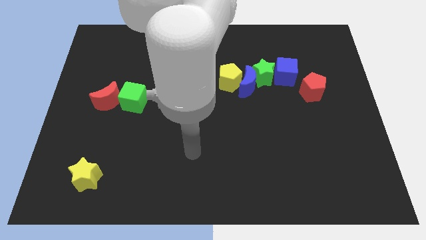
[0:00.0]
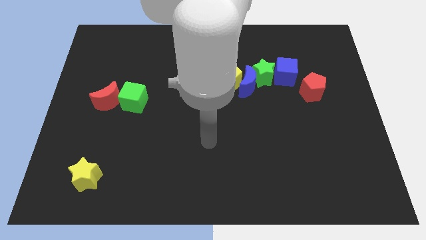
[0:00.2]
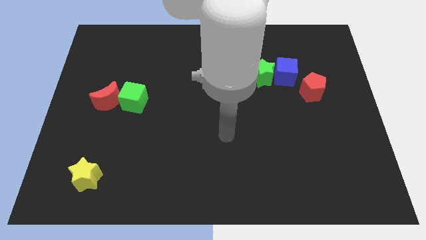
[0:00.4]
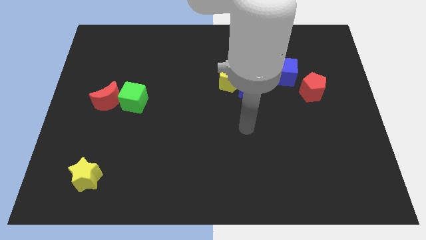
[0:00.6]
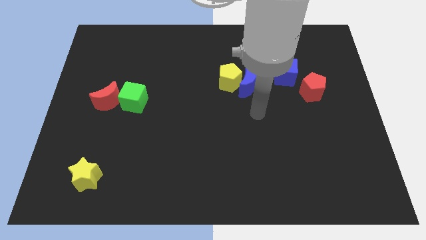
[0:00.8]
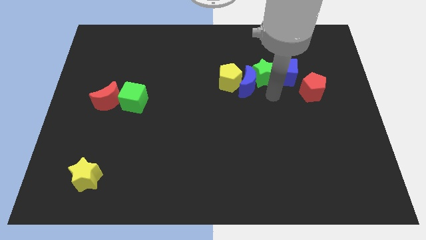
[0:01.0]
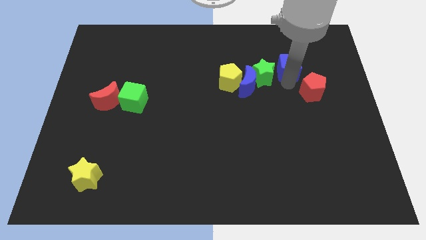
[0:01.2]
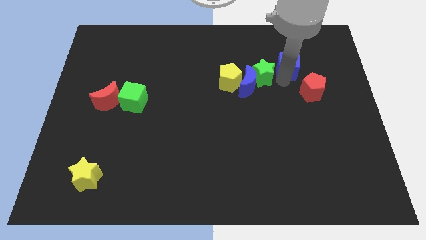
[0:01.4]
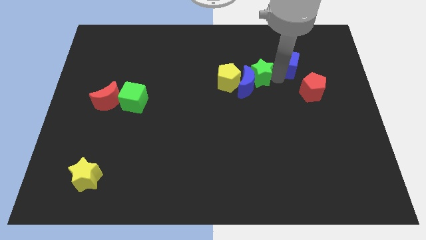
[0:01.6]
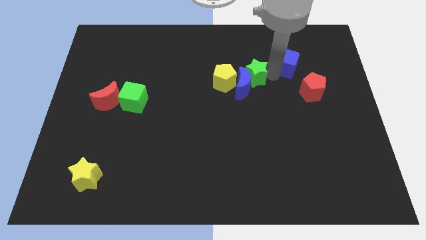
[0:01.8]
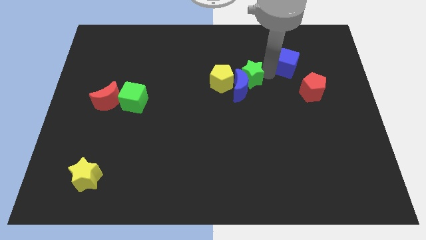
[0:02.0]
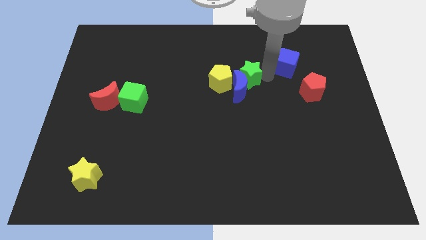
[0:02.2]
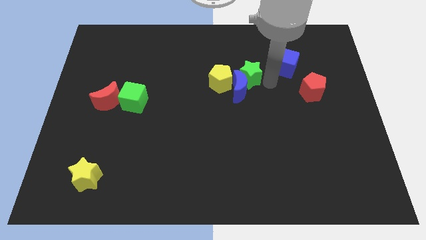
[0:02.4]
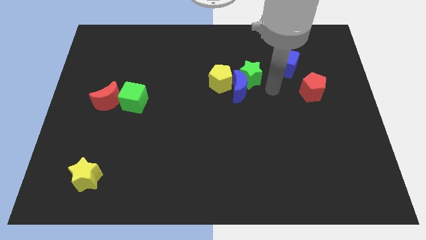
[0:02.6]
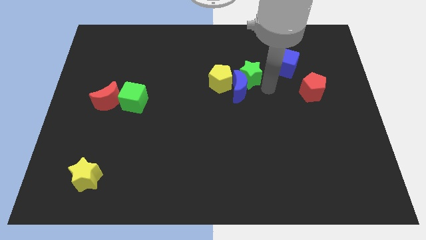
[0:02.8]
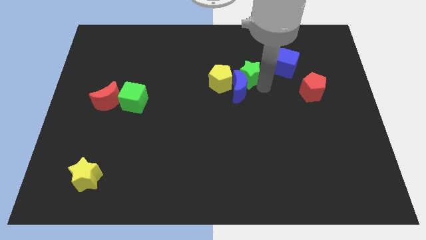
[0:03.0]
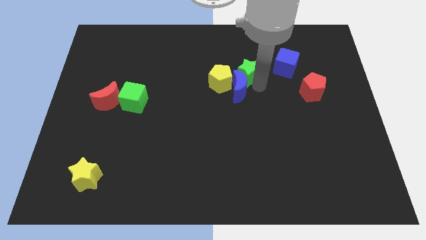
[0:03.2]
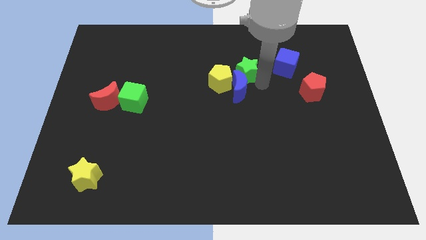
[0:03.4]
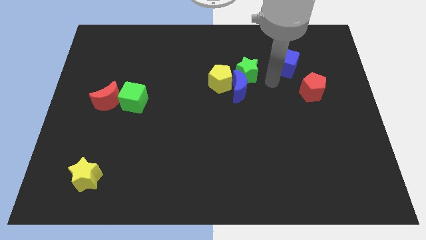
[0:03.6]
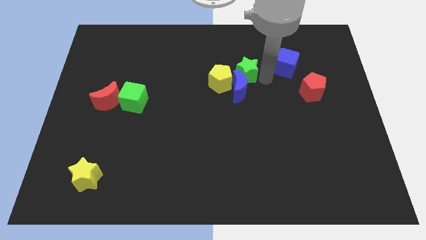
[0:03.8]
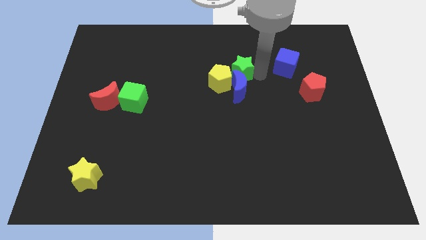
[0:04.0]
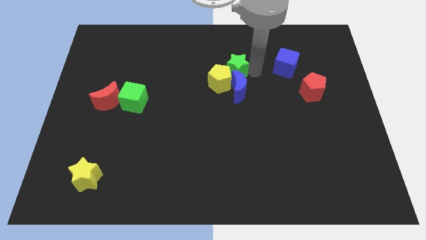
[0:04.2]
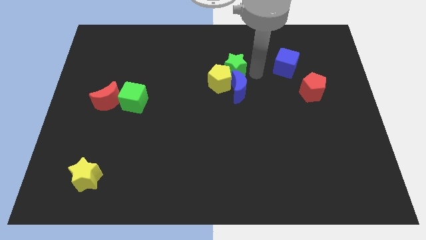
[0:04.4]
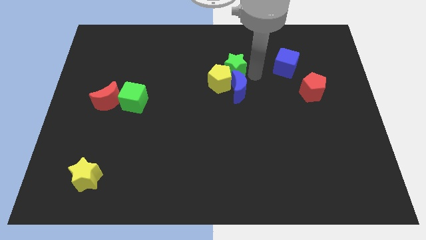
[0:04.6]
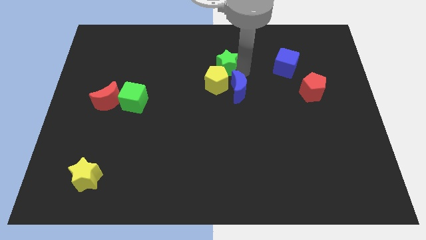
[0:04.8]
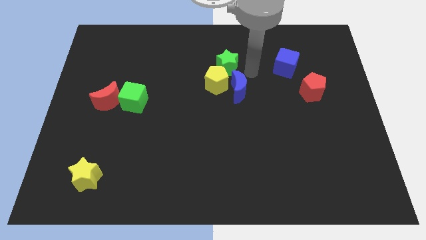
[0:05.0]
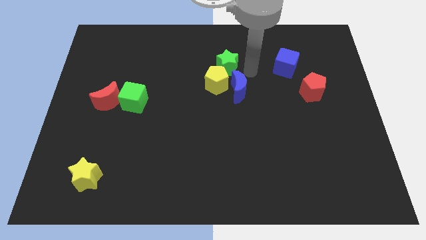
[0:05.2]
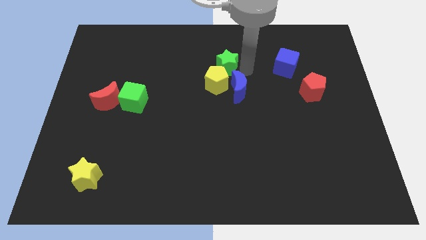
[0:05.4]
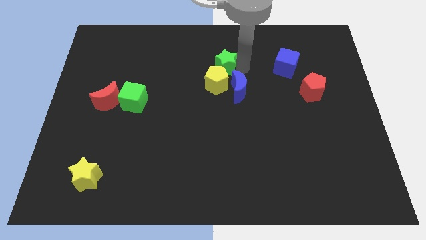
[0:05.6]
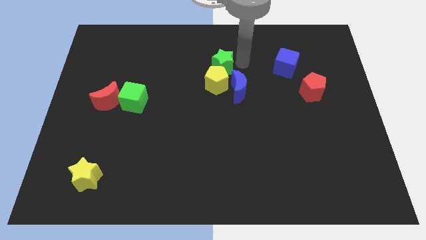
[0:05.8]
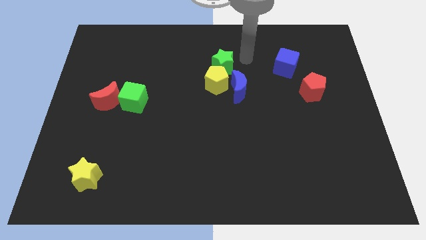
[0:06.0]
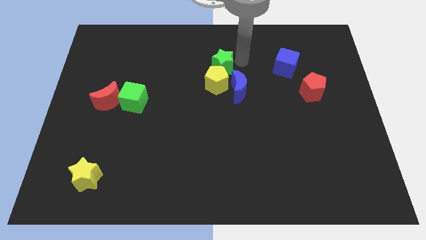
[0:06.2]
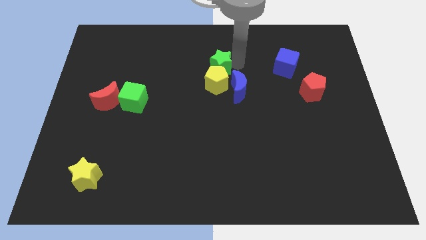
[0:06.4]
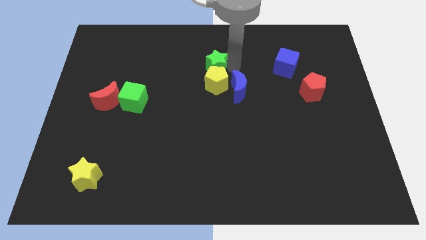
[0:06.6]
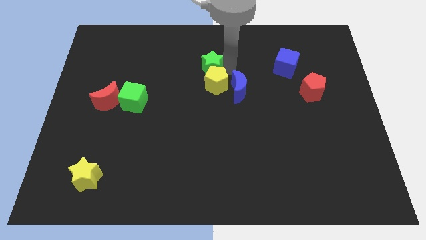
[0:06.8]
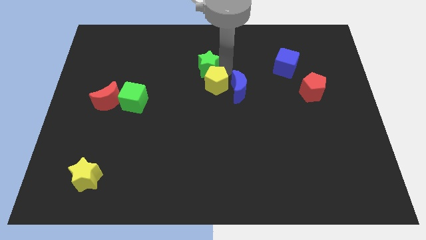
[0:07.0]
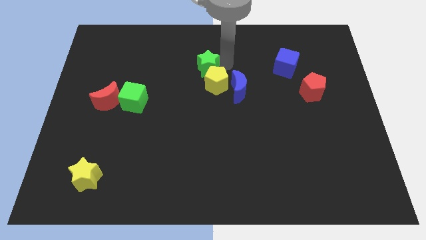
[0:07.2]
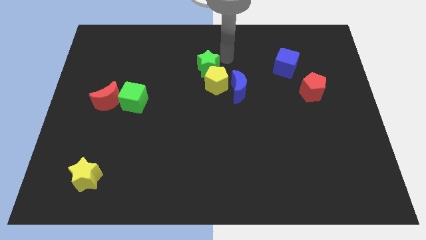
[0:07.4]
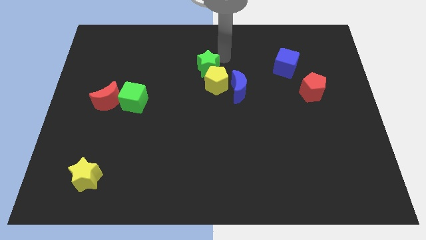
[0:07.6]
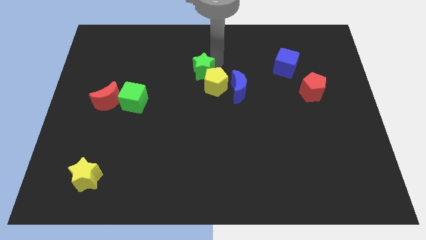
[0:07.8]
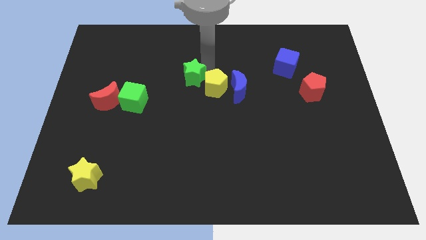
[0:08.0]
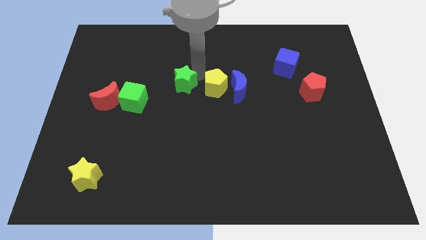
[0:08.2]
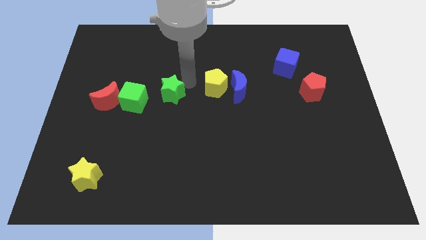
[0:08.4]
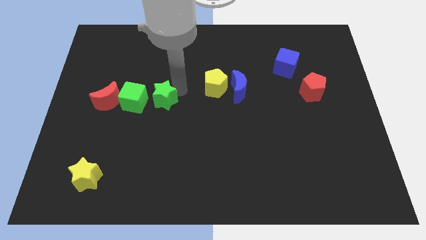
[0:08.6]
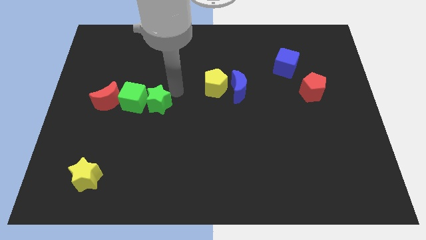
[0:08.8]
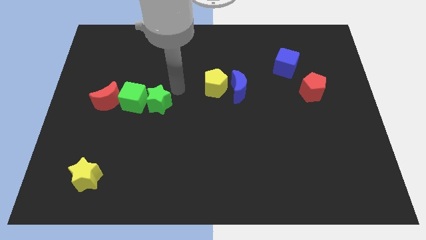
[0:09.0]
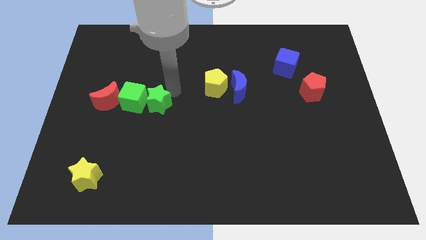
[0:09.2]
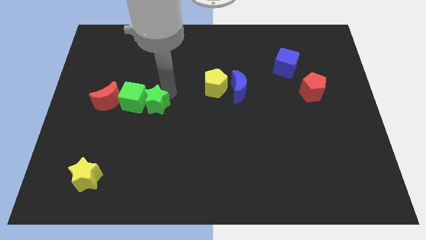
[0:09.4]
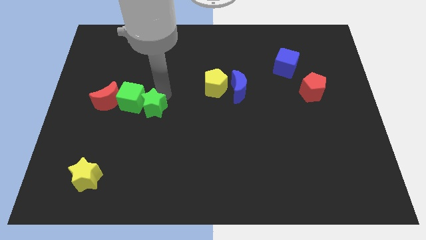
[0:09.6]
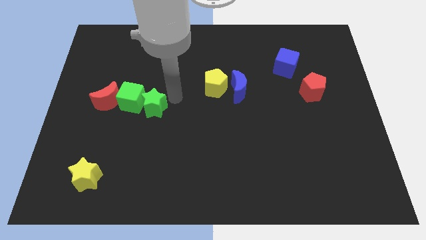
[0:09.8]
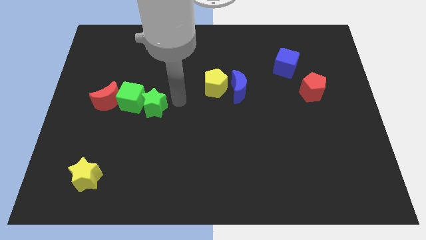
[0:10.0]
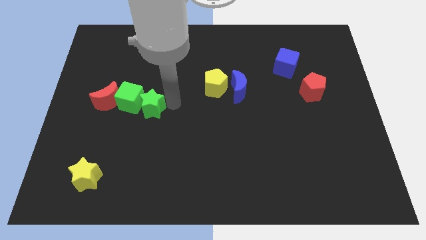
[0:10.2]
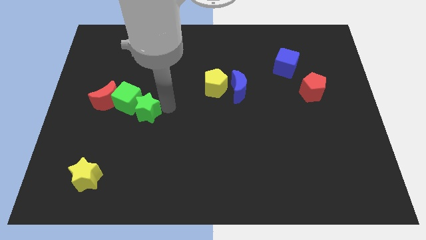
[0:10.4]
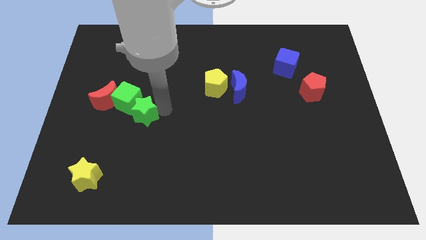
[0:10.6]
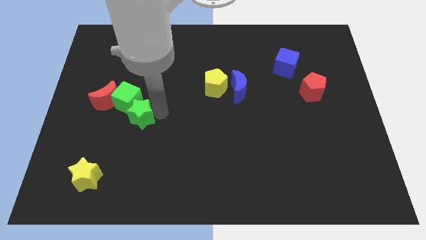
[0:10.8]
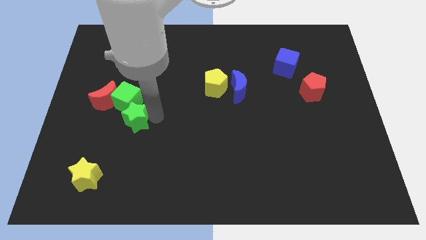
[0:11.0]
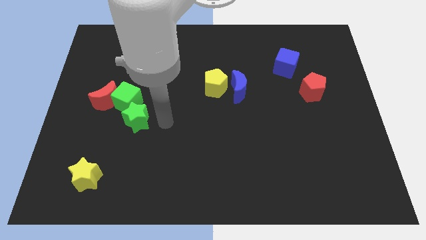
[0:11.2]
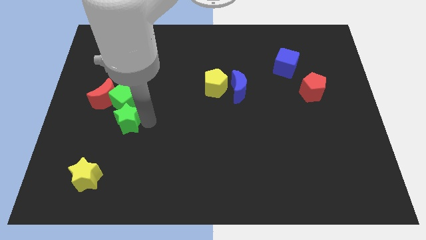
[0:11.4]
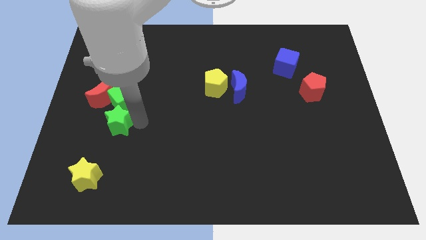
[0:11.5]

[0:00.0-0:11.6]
slide the green star diagonally down and to the left of the green cube

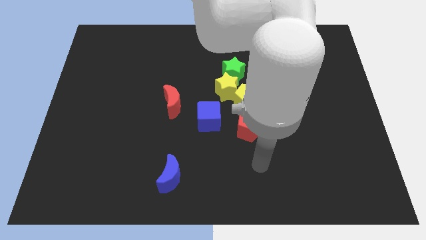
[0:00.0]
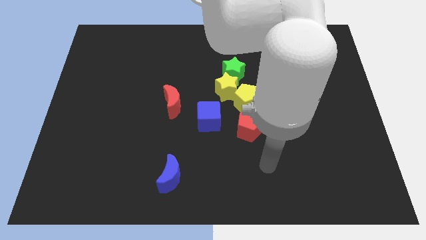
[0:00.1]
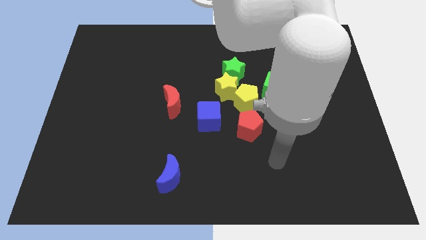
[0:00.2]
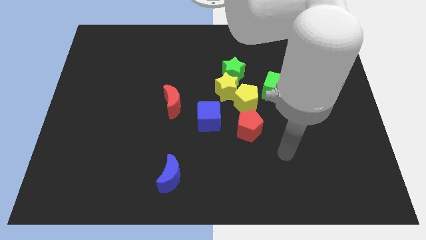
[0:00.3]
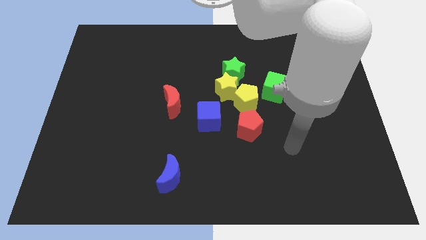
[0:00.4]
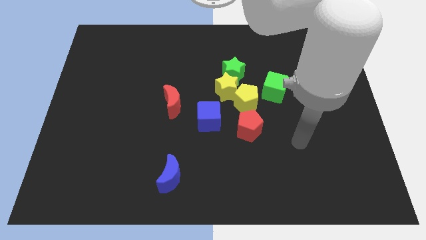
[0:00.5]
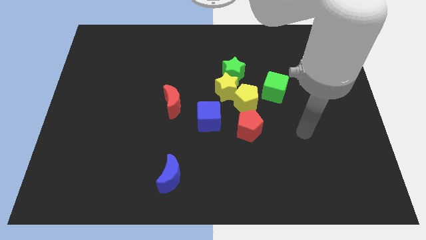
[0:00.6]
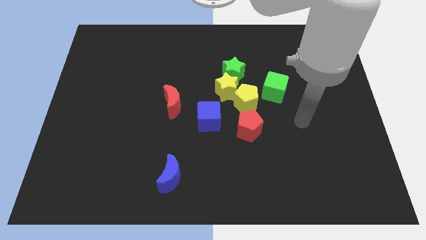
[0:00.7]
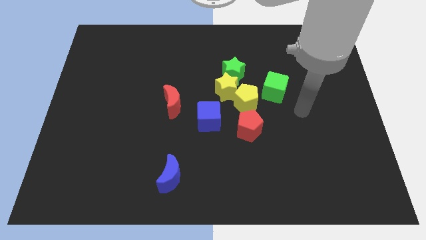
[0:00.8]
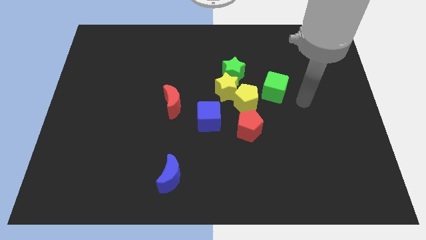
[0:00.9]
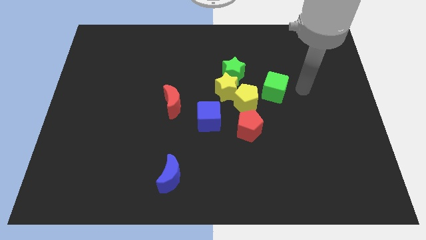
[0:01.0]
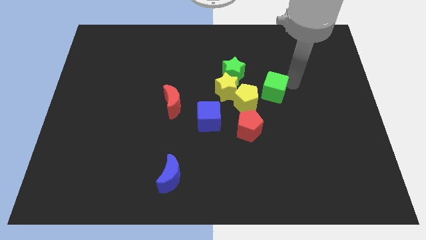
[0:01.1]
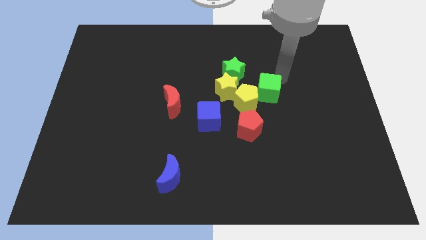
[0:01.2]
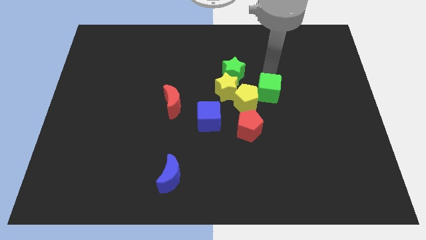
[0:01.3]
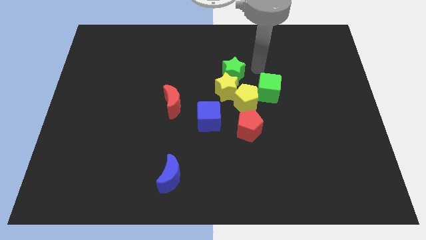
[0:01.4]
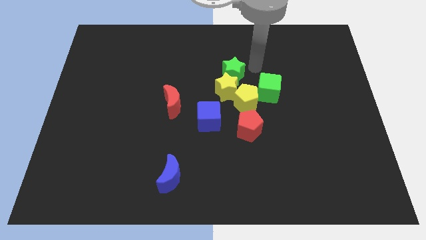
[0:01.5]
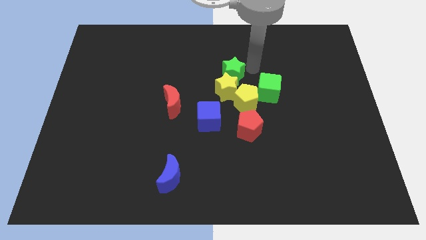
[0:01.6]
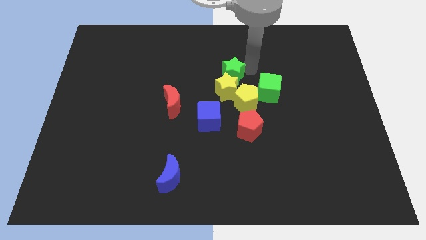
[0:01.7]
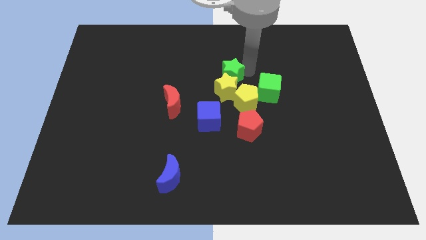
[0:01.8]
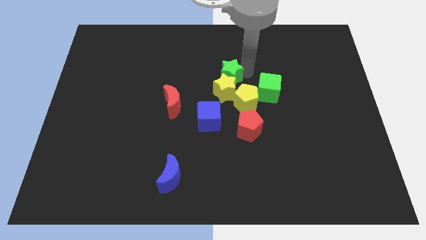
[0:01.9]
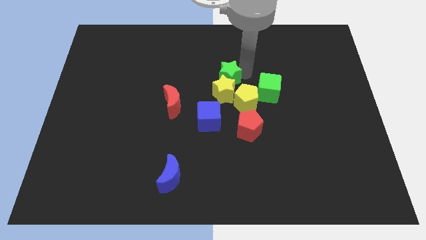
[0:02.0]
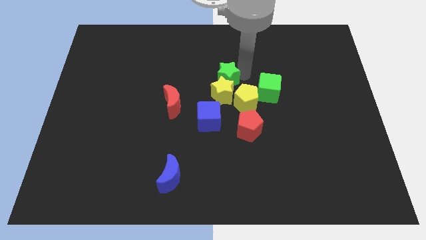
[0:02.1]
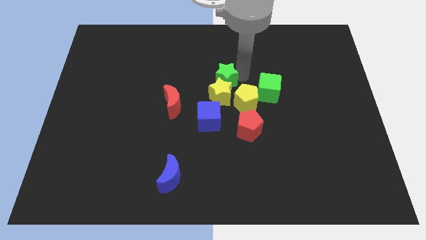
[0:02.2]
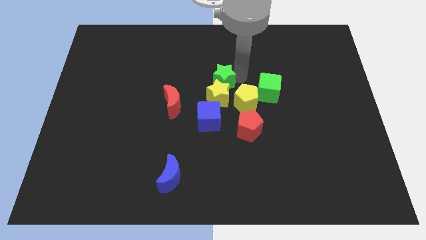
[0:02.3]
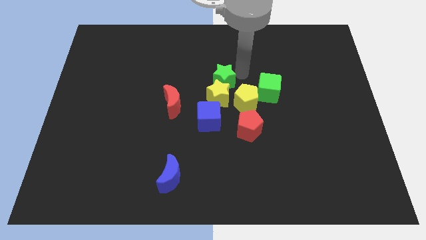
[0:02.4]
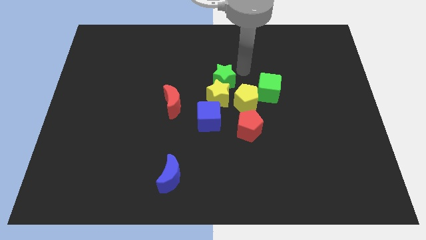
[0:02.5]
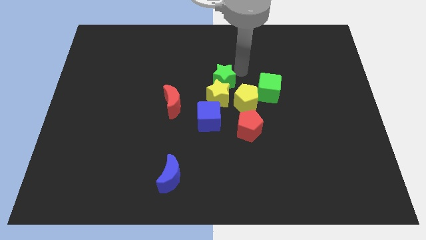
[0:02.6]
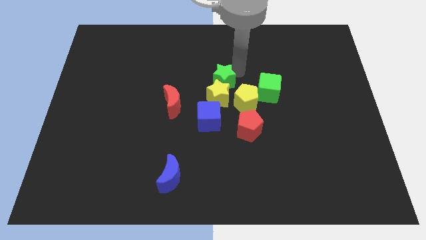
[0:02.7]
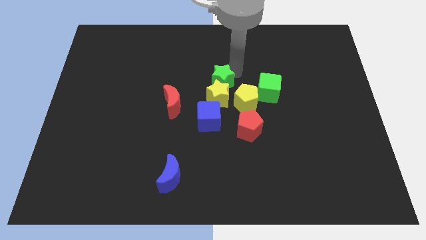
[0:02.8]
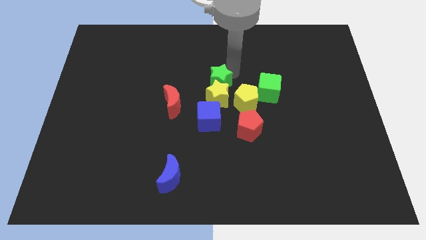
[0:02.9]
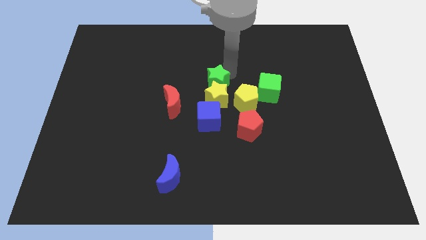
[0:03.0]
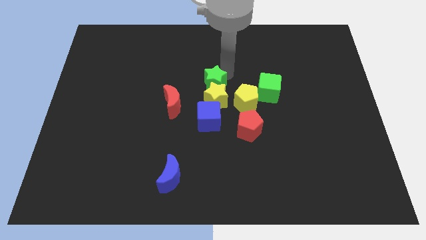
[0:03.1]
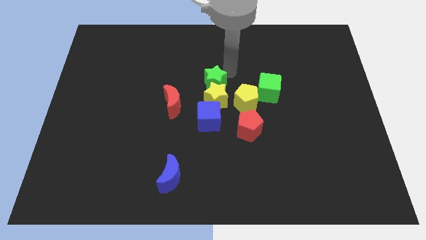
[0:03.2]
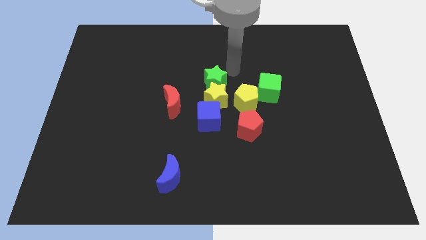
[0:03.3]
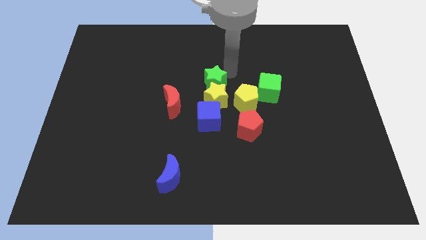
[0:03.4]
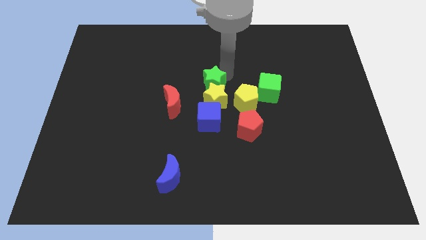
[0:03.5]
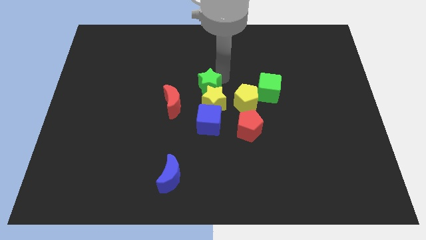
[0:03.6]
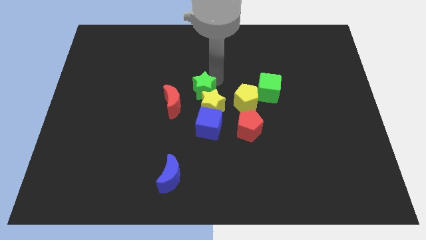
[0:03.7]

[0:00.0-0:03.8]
put the green star right of the red moon
